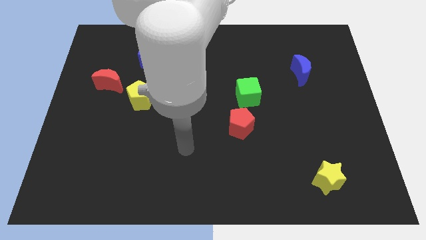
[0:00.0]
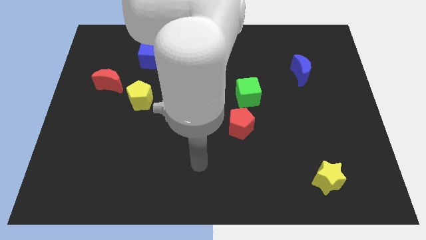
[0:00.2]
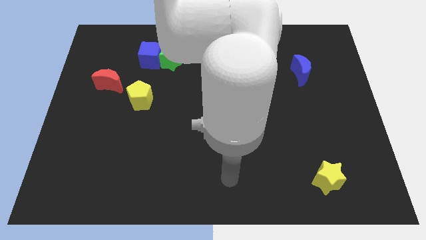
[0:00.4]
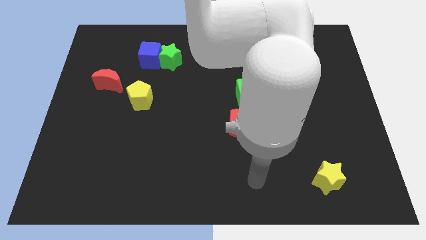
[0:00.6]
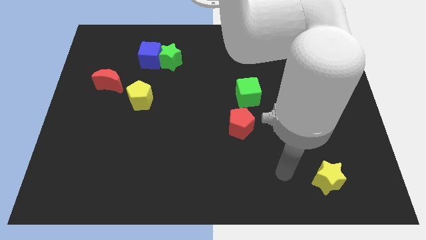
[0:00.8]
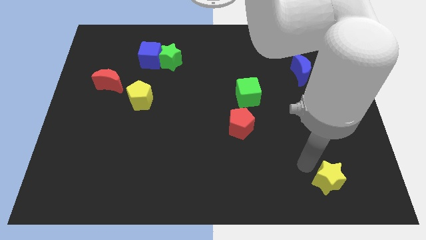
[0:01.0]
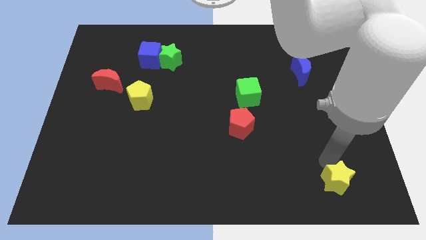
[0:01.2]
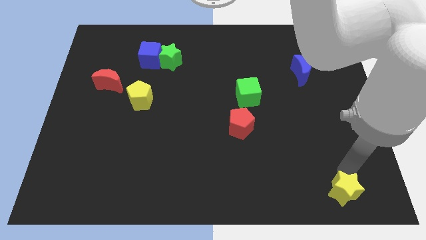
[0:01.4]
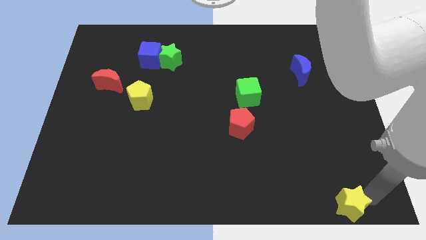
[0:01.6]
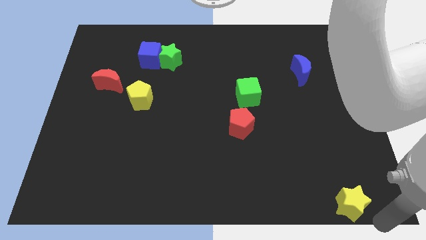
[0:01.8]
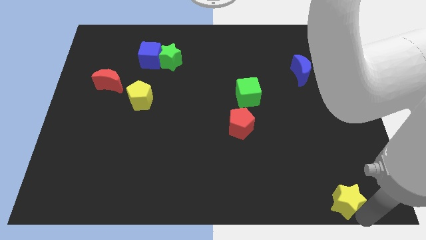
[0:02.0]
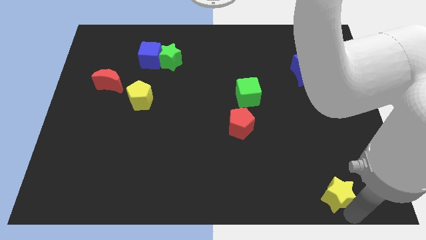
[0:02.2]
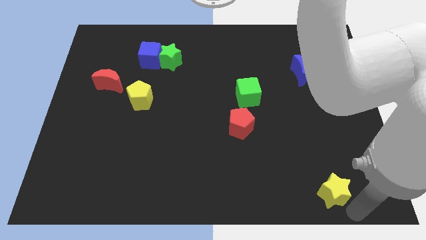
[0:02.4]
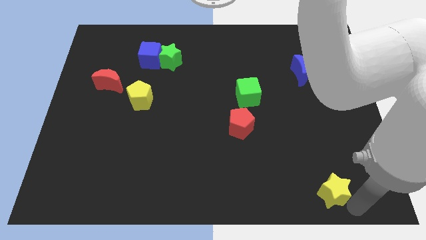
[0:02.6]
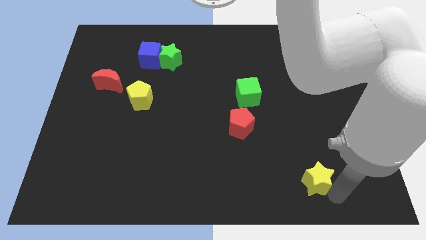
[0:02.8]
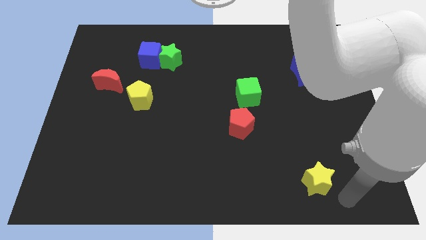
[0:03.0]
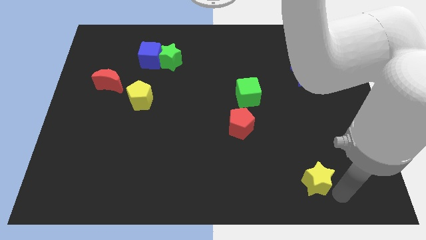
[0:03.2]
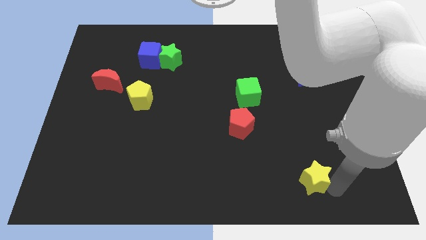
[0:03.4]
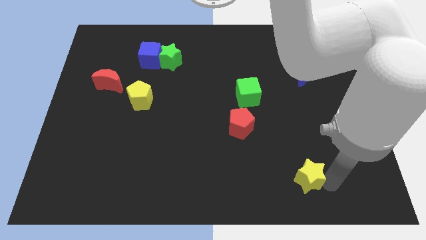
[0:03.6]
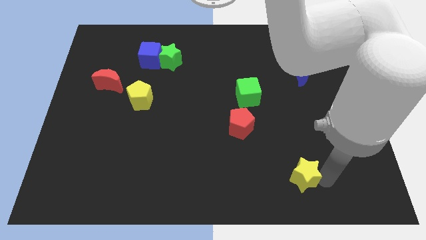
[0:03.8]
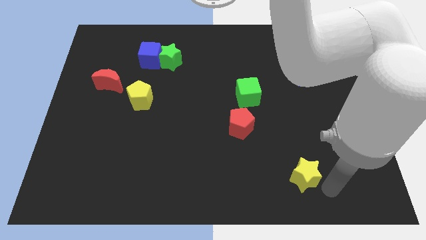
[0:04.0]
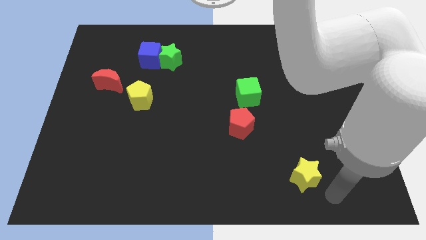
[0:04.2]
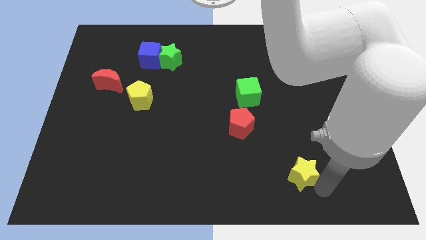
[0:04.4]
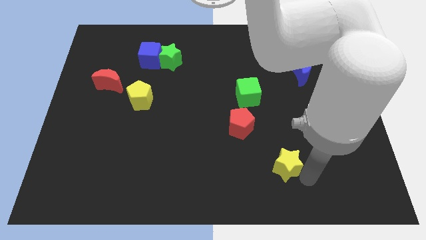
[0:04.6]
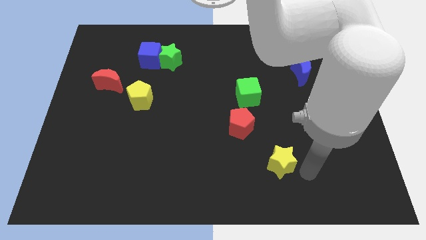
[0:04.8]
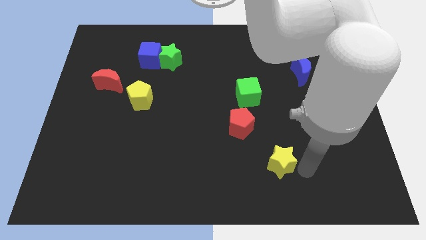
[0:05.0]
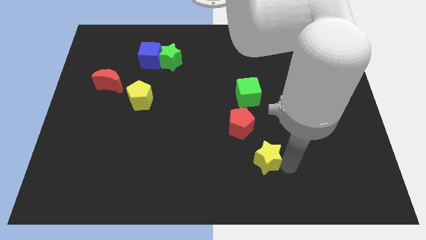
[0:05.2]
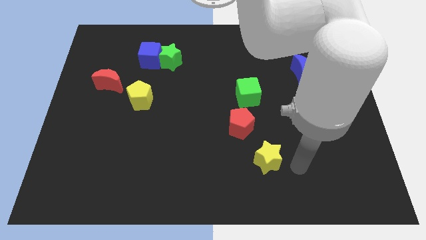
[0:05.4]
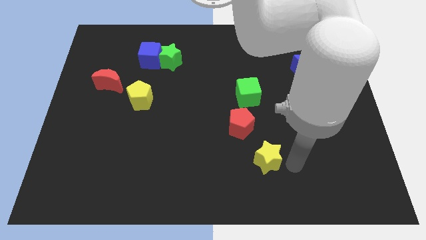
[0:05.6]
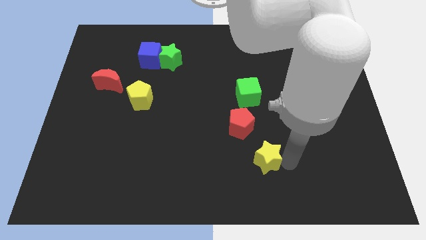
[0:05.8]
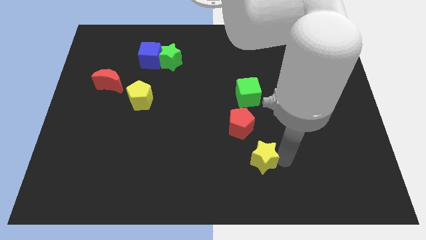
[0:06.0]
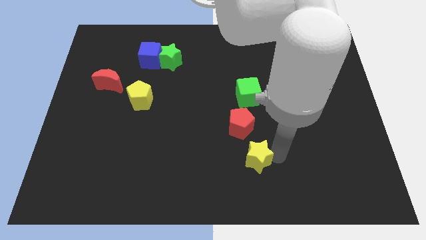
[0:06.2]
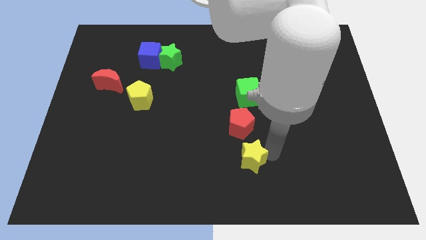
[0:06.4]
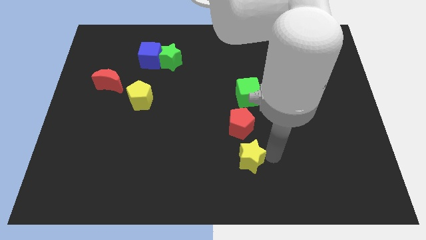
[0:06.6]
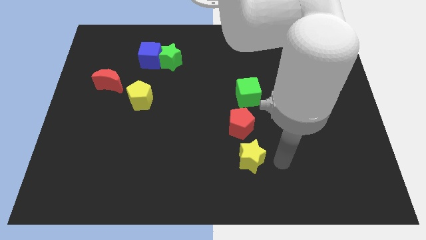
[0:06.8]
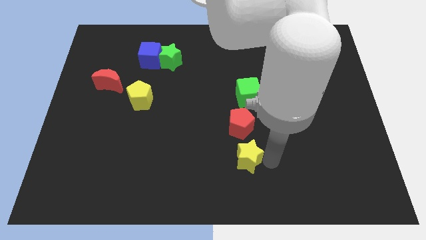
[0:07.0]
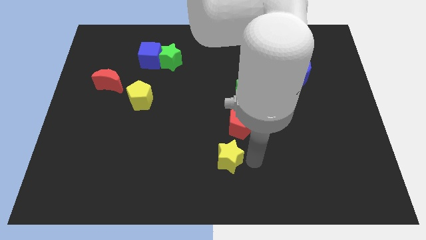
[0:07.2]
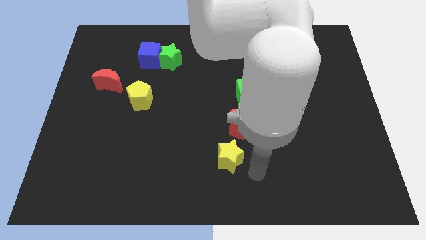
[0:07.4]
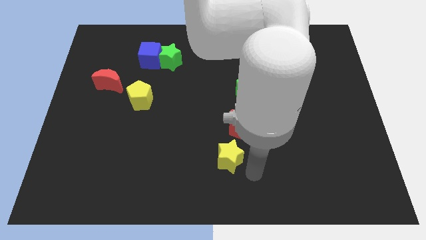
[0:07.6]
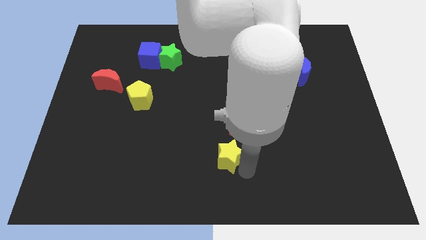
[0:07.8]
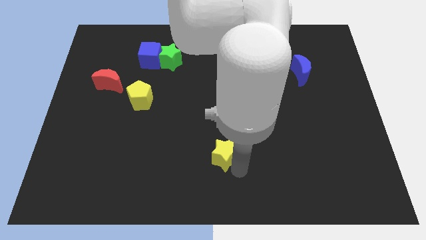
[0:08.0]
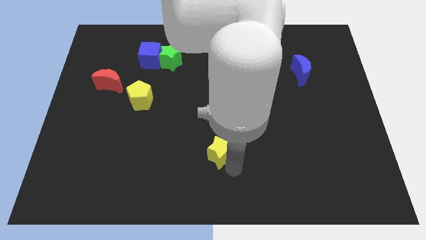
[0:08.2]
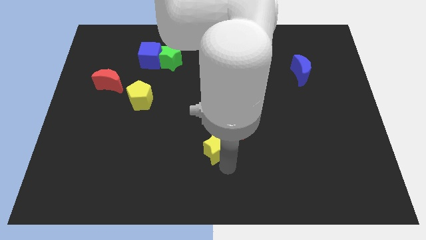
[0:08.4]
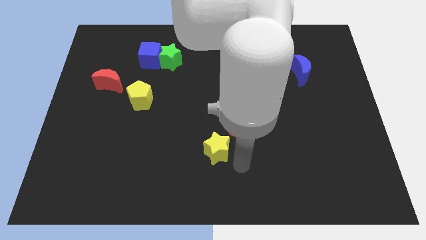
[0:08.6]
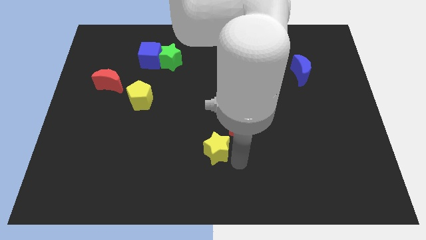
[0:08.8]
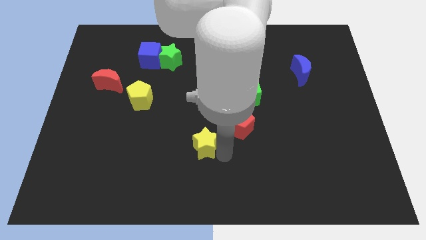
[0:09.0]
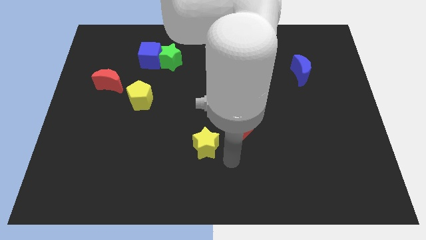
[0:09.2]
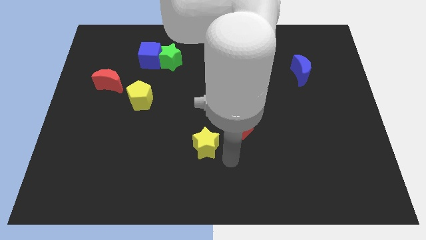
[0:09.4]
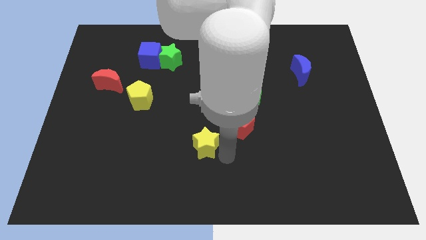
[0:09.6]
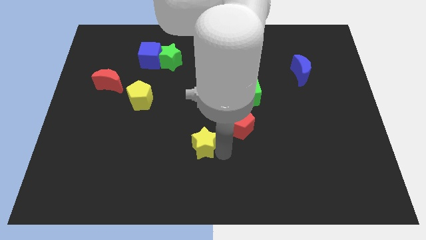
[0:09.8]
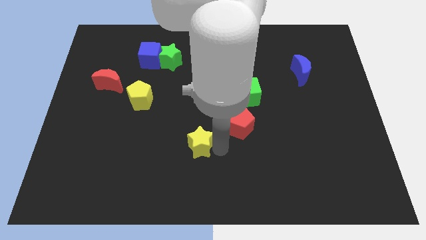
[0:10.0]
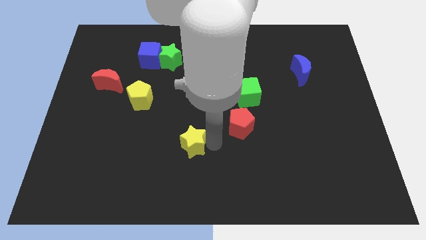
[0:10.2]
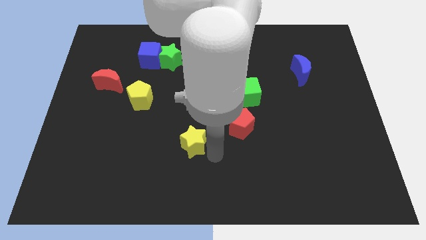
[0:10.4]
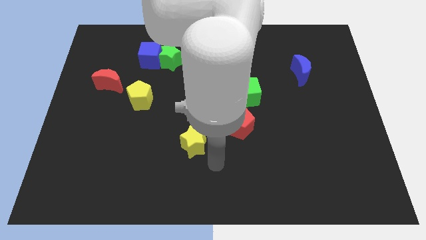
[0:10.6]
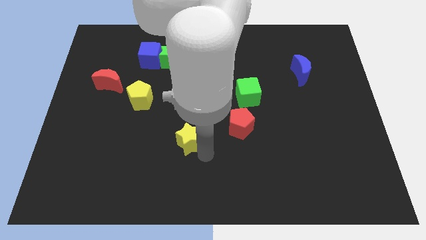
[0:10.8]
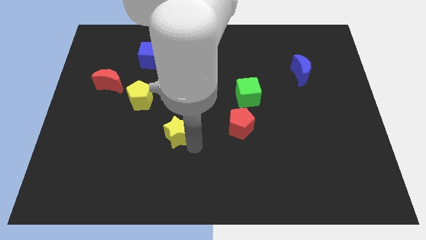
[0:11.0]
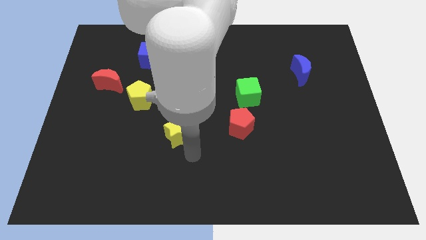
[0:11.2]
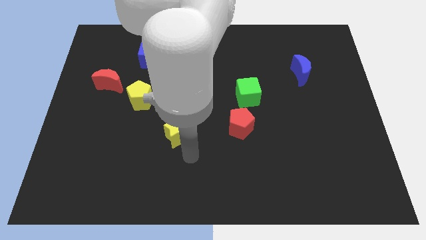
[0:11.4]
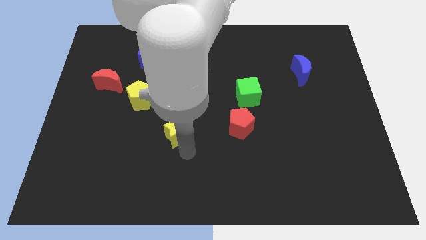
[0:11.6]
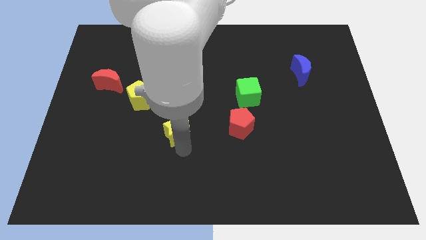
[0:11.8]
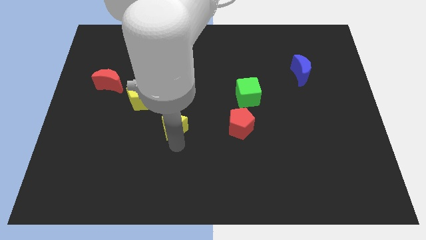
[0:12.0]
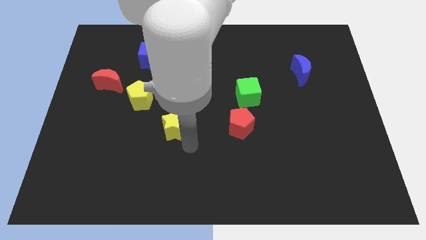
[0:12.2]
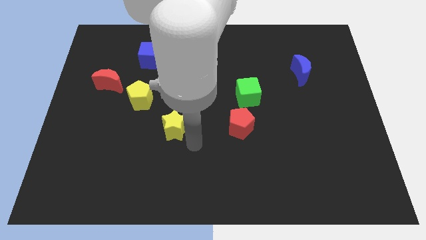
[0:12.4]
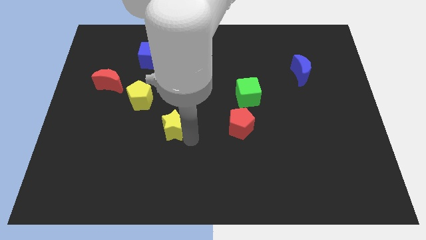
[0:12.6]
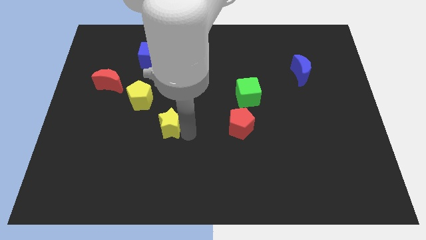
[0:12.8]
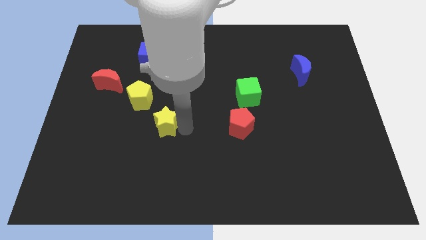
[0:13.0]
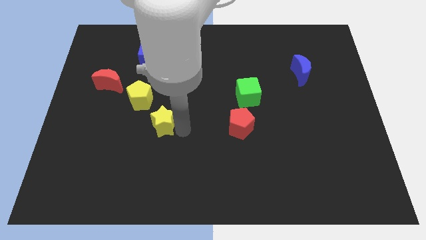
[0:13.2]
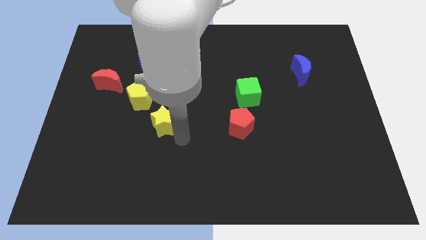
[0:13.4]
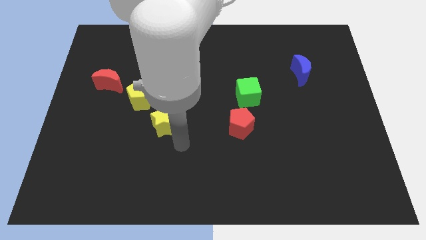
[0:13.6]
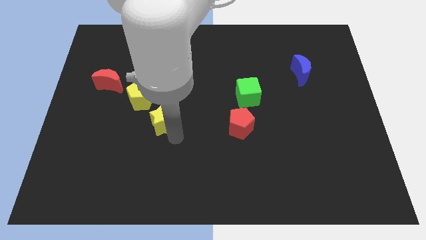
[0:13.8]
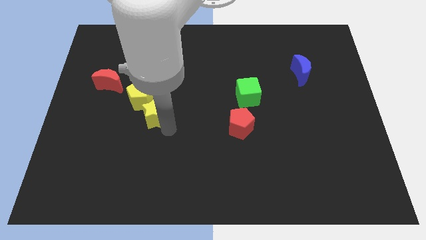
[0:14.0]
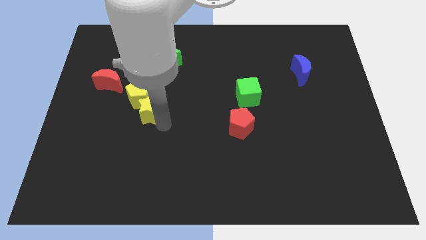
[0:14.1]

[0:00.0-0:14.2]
slide the yellow star to the yellow pentagon
